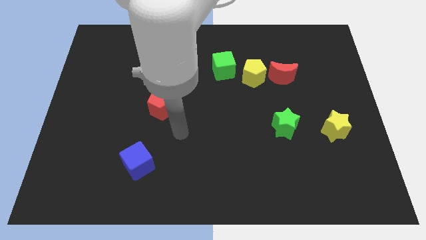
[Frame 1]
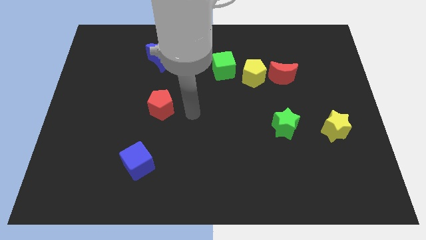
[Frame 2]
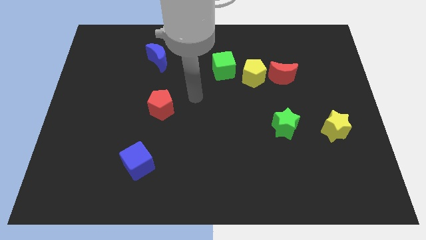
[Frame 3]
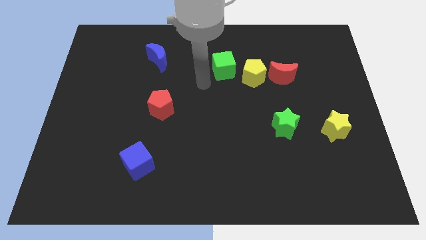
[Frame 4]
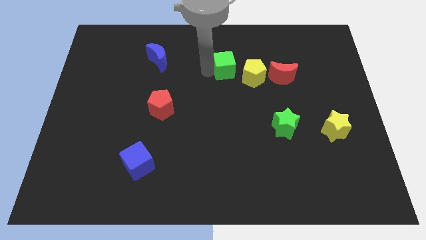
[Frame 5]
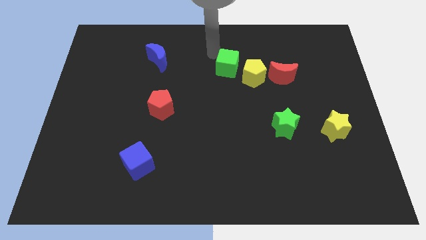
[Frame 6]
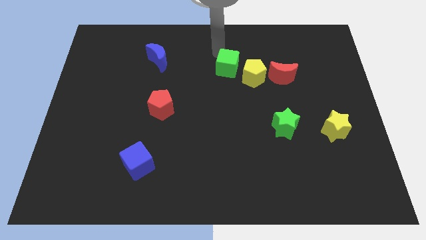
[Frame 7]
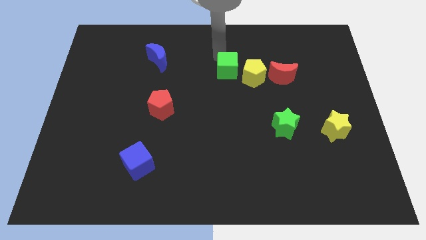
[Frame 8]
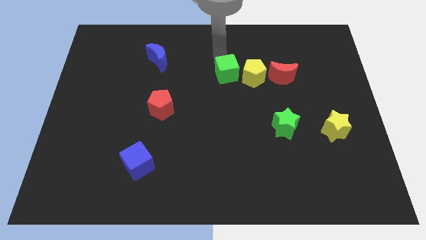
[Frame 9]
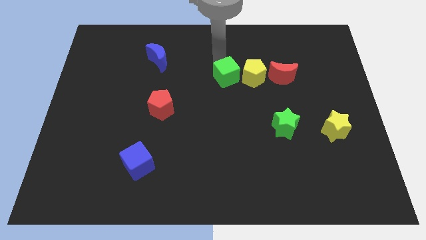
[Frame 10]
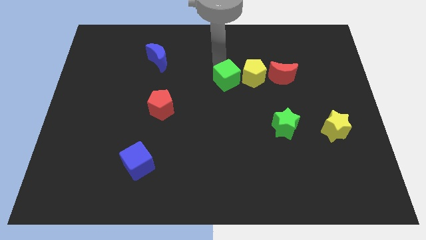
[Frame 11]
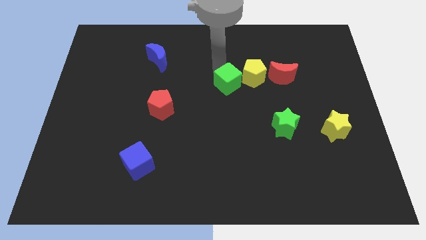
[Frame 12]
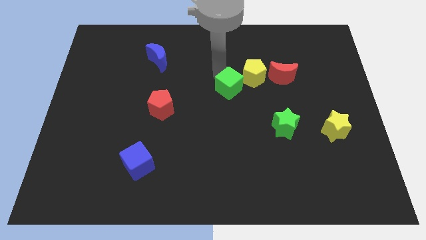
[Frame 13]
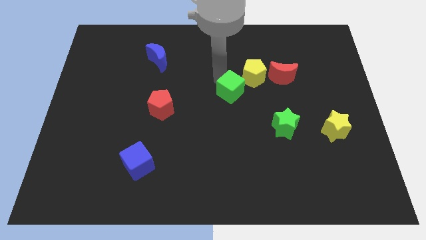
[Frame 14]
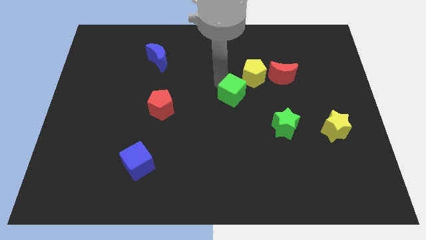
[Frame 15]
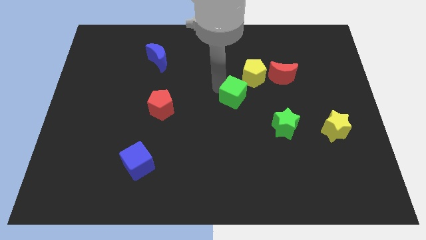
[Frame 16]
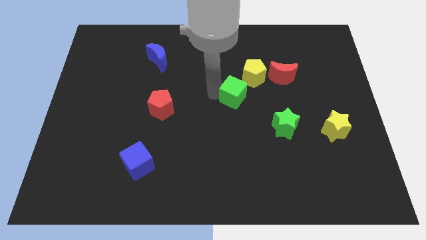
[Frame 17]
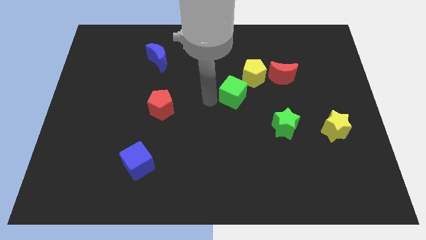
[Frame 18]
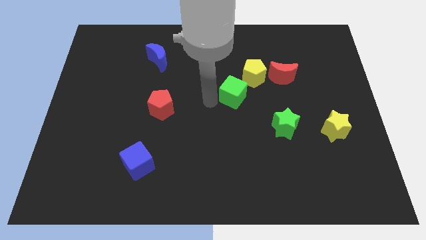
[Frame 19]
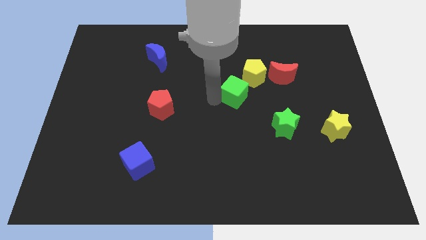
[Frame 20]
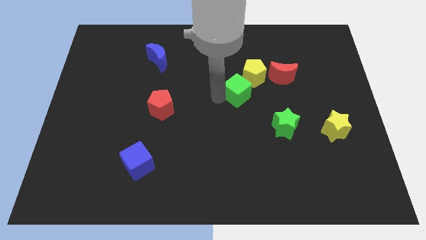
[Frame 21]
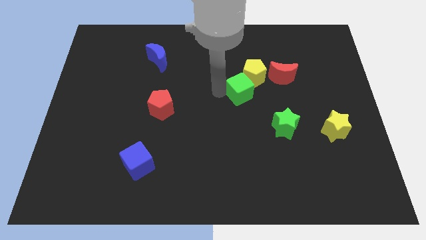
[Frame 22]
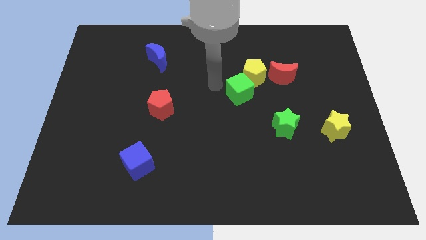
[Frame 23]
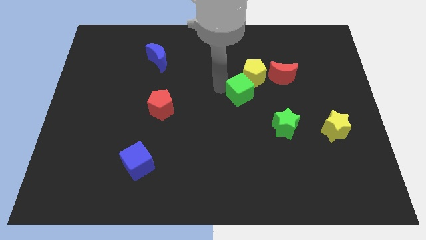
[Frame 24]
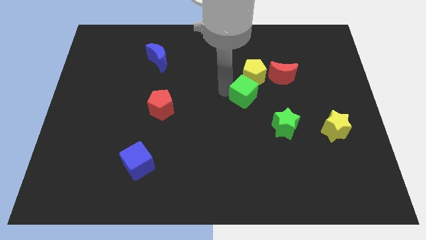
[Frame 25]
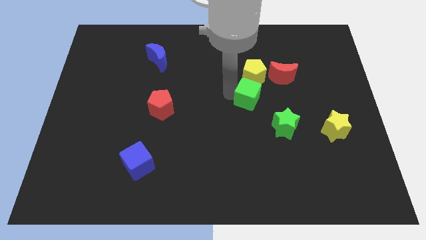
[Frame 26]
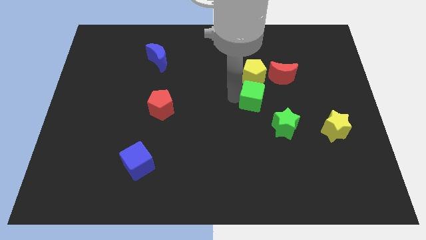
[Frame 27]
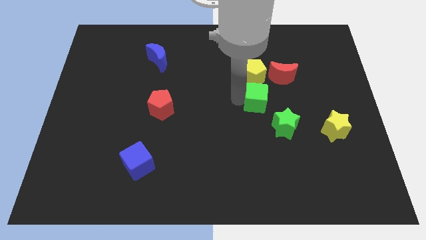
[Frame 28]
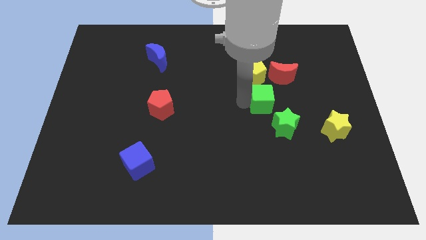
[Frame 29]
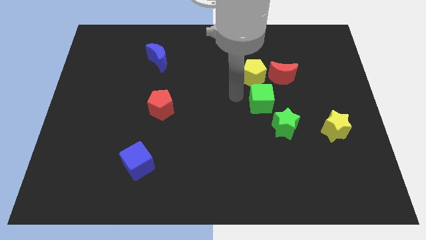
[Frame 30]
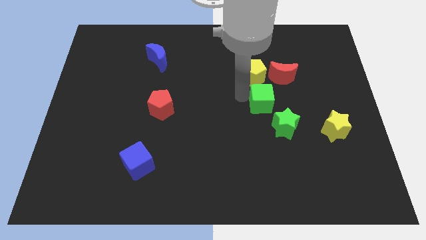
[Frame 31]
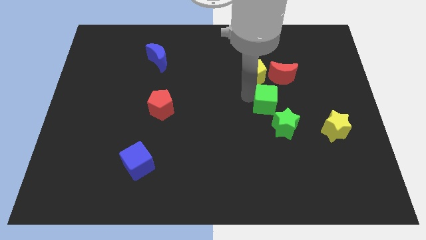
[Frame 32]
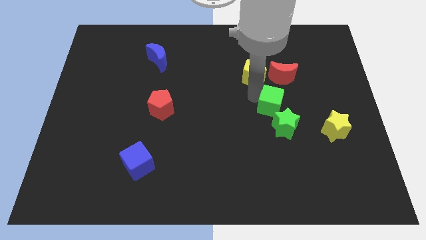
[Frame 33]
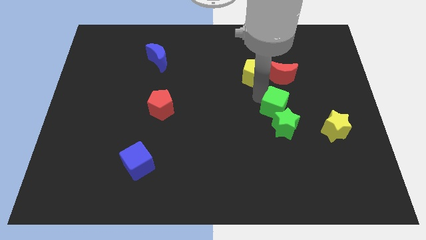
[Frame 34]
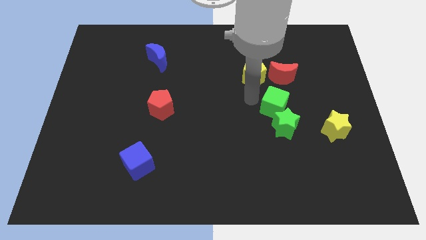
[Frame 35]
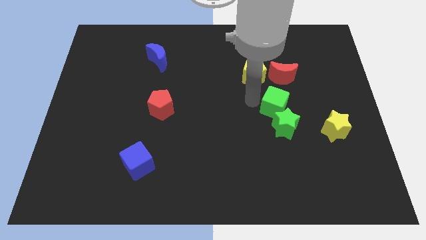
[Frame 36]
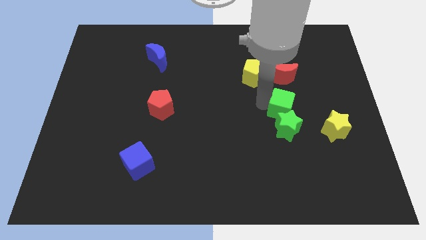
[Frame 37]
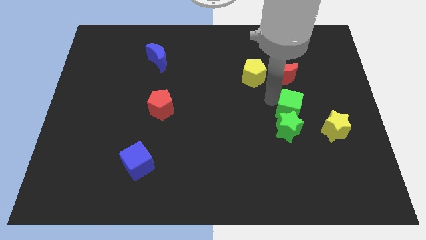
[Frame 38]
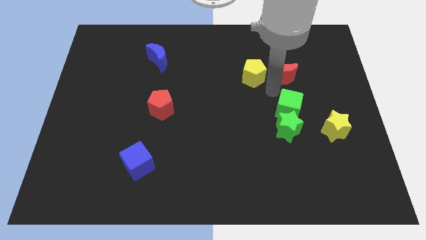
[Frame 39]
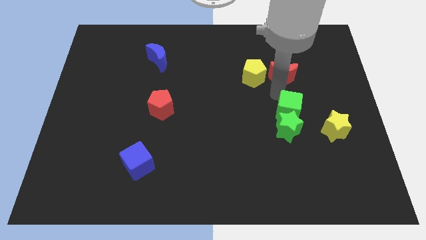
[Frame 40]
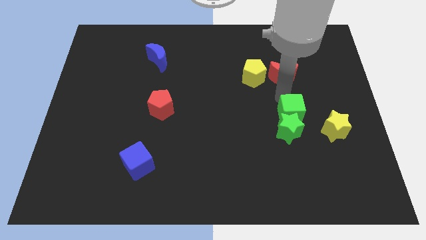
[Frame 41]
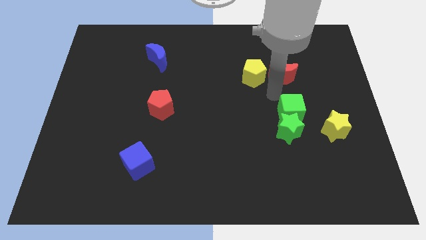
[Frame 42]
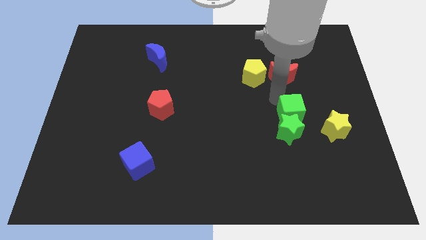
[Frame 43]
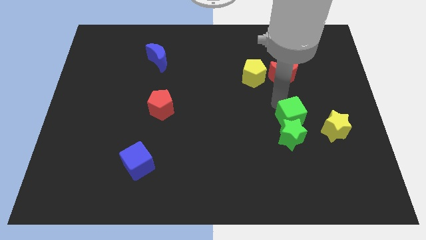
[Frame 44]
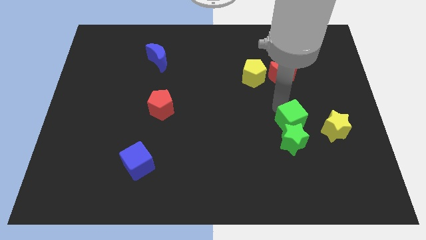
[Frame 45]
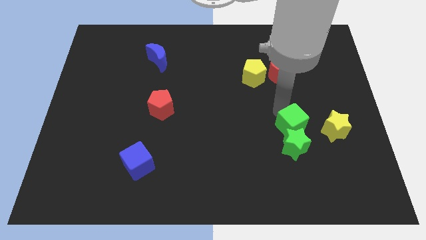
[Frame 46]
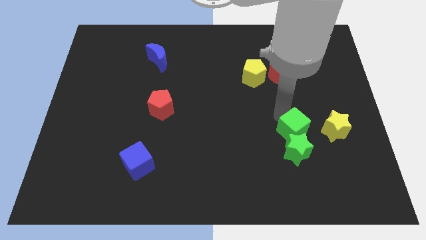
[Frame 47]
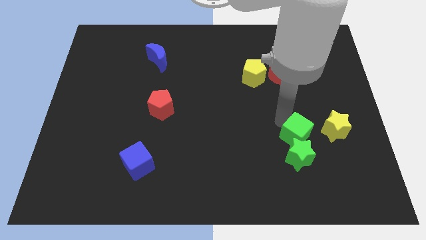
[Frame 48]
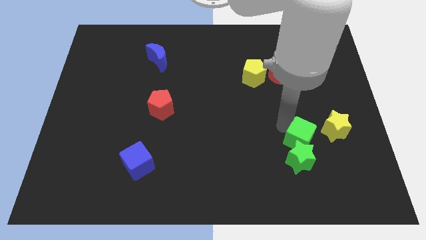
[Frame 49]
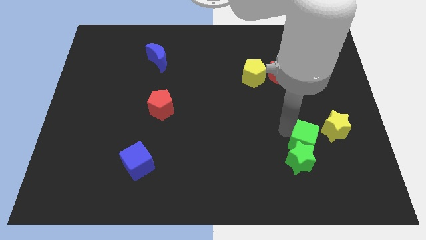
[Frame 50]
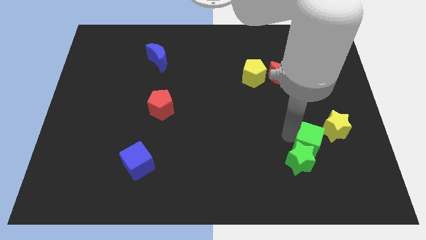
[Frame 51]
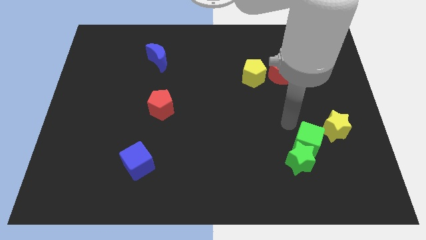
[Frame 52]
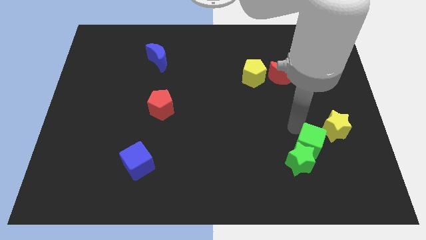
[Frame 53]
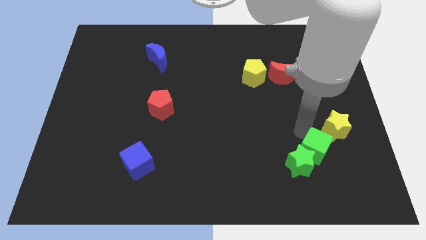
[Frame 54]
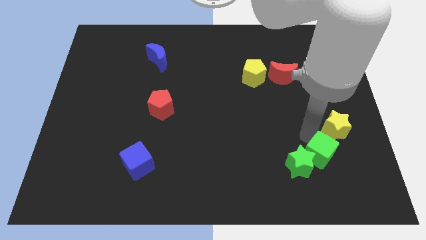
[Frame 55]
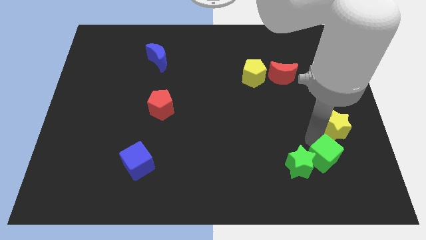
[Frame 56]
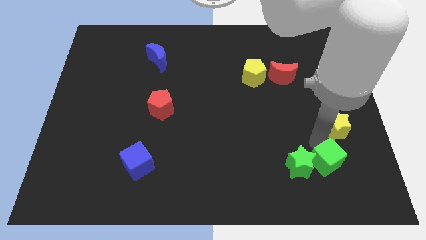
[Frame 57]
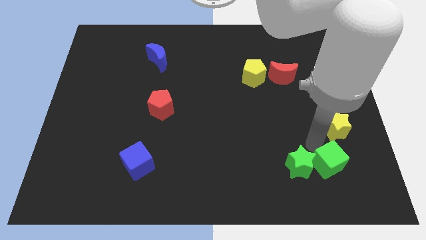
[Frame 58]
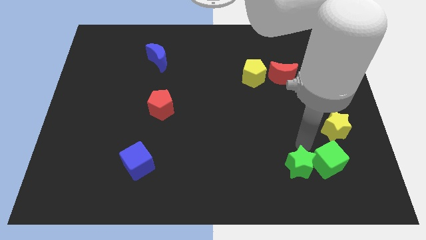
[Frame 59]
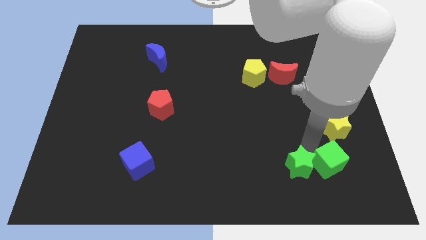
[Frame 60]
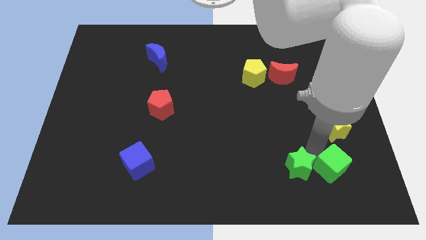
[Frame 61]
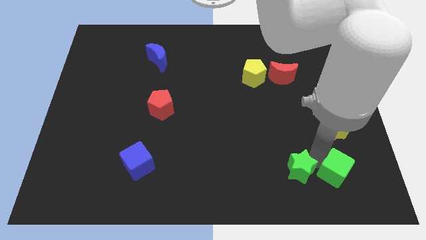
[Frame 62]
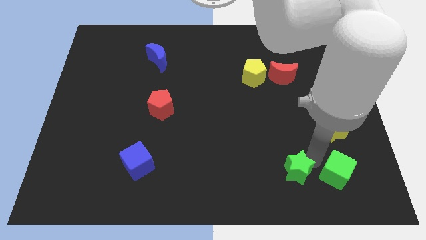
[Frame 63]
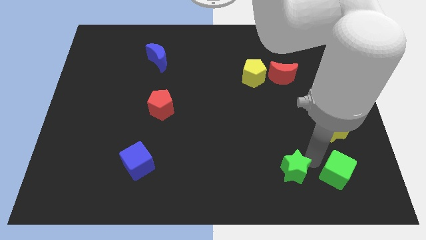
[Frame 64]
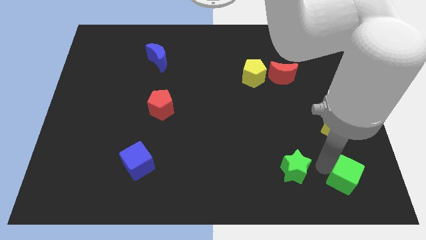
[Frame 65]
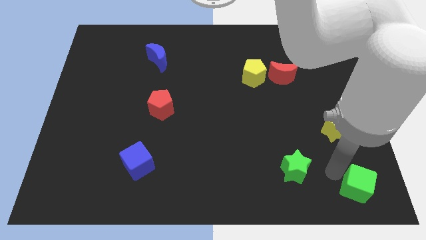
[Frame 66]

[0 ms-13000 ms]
move the green cube to the bottom right corner

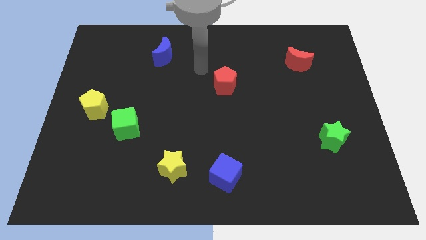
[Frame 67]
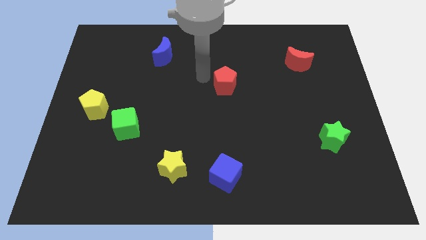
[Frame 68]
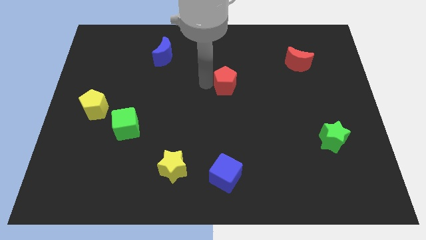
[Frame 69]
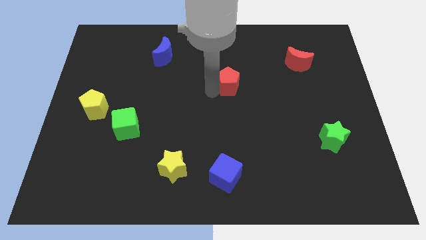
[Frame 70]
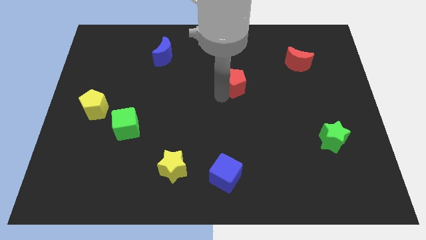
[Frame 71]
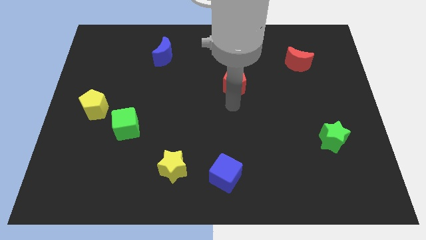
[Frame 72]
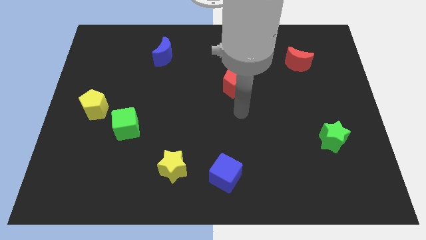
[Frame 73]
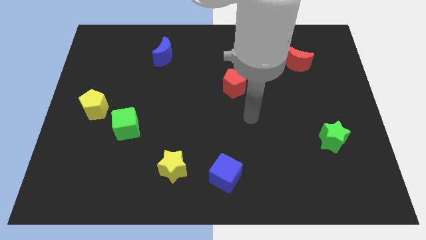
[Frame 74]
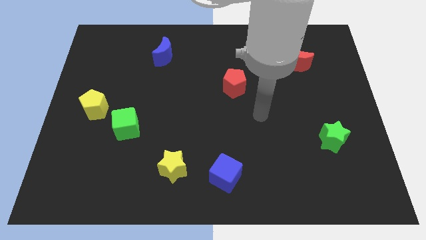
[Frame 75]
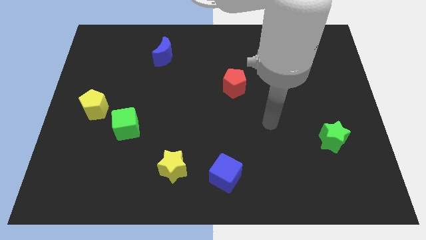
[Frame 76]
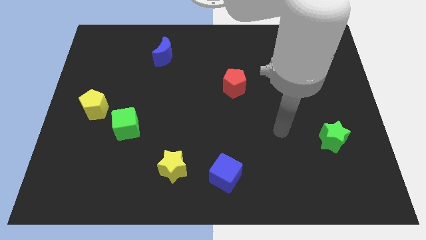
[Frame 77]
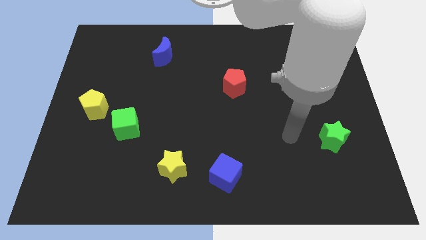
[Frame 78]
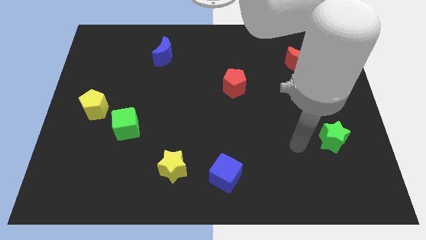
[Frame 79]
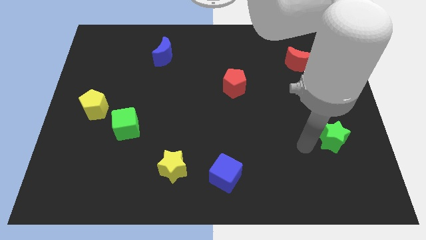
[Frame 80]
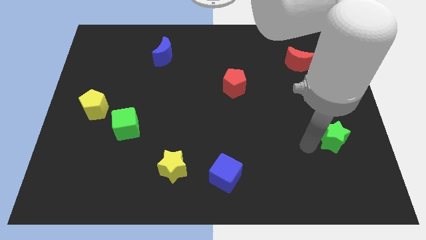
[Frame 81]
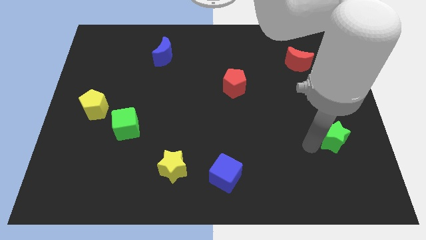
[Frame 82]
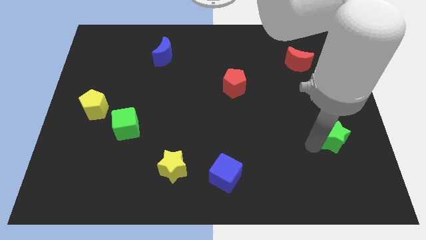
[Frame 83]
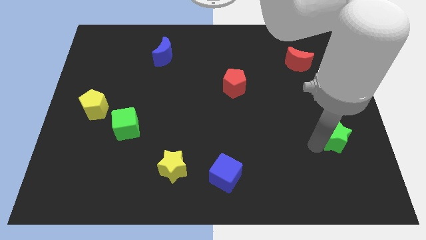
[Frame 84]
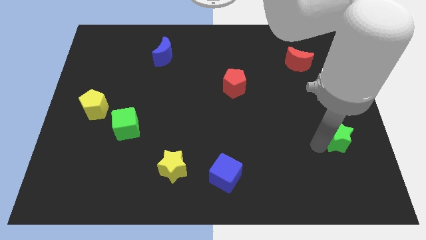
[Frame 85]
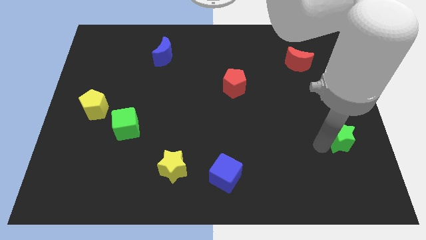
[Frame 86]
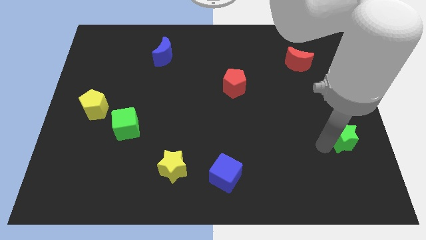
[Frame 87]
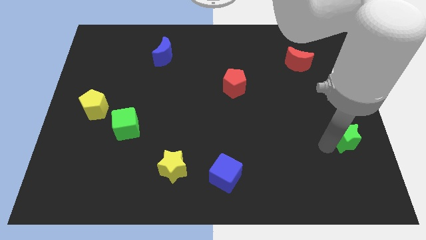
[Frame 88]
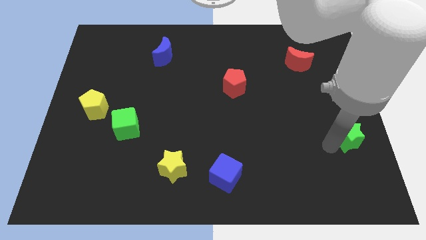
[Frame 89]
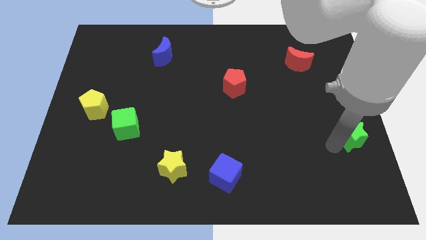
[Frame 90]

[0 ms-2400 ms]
move the green star to the right side of the board
